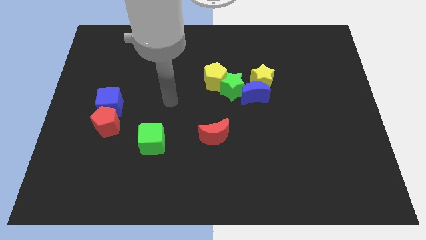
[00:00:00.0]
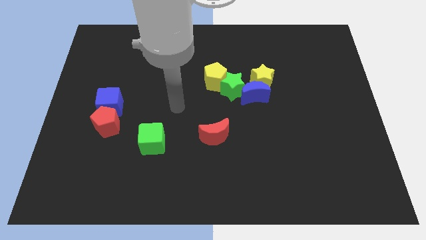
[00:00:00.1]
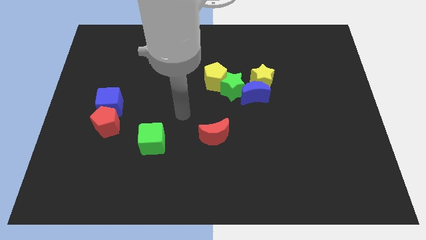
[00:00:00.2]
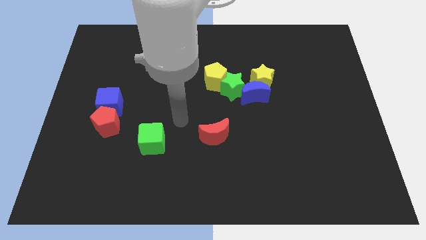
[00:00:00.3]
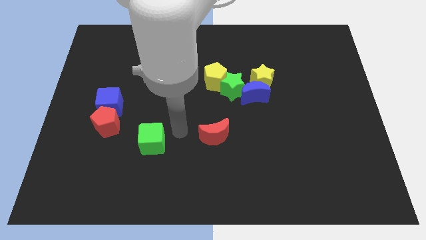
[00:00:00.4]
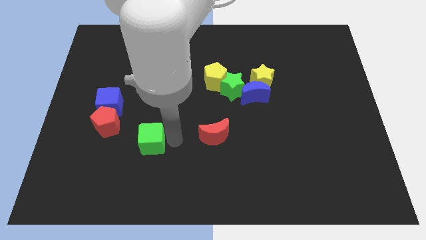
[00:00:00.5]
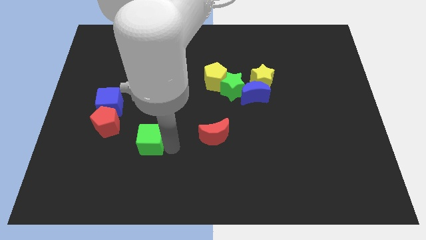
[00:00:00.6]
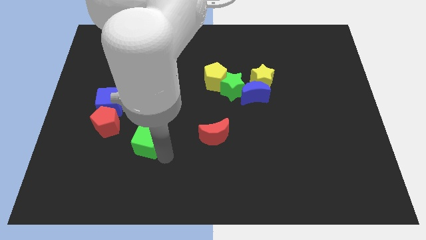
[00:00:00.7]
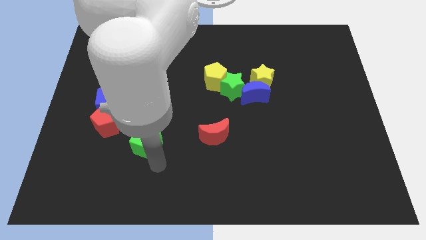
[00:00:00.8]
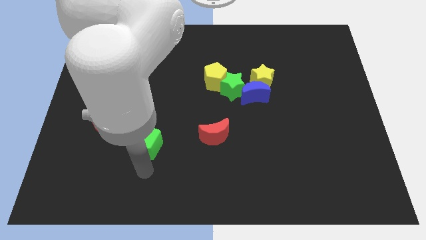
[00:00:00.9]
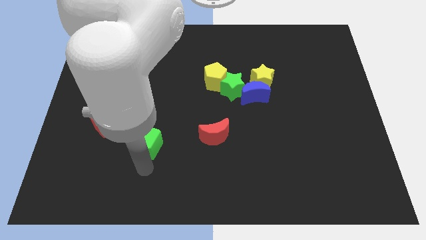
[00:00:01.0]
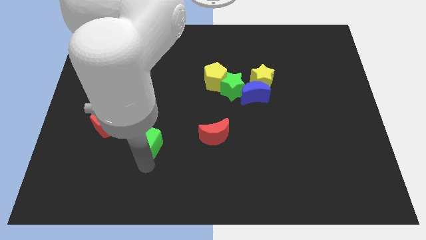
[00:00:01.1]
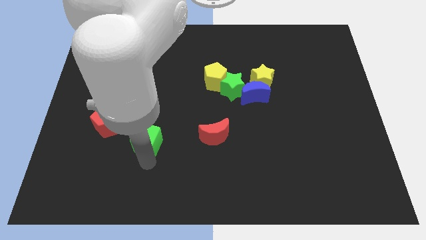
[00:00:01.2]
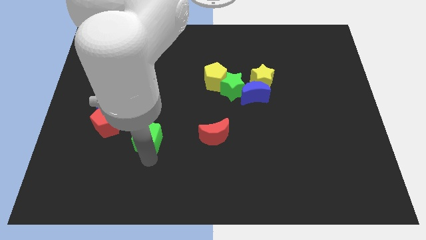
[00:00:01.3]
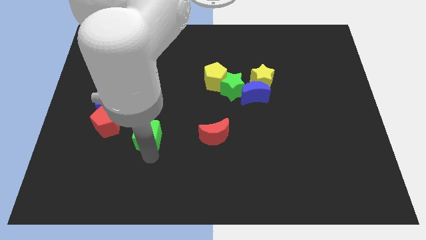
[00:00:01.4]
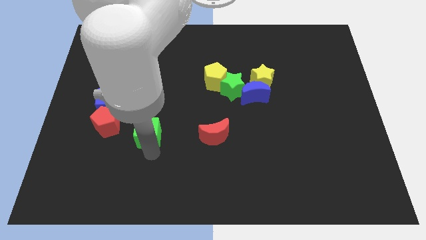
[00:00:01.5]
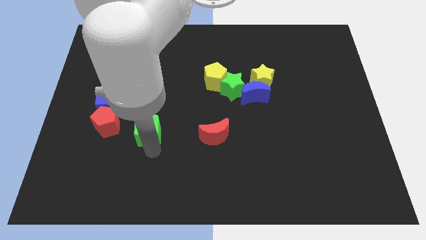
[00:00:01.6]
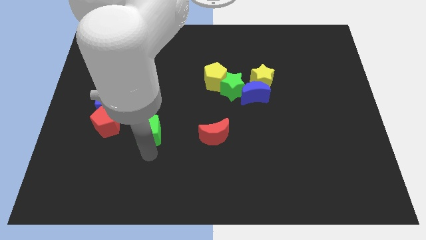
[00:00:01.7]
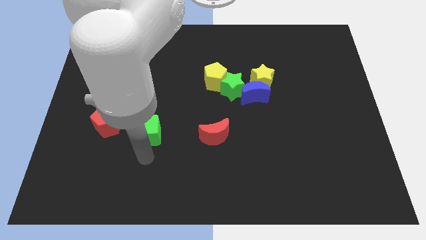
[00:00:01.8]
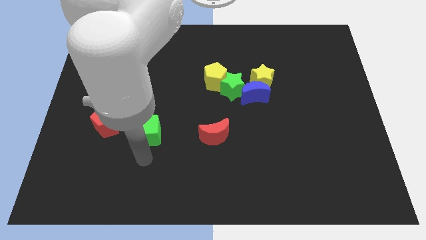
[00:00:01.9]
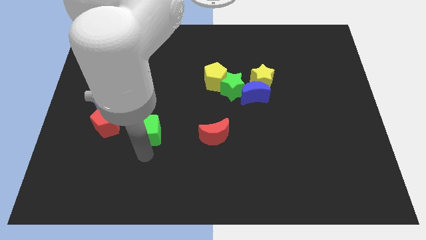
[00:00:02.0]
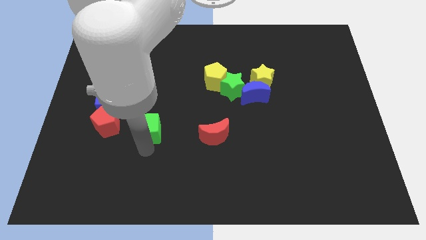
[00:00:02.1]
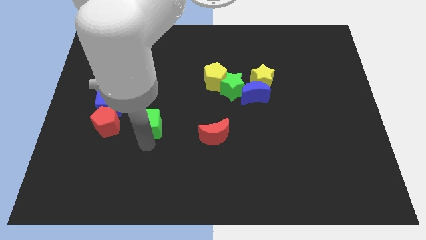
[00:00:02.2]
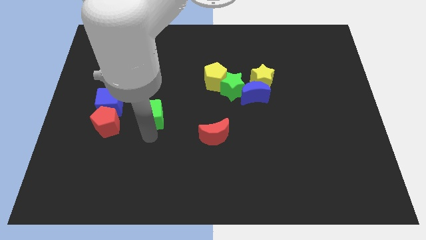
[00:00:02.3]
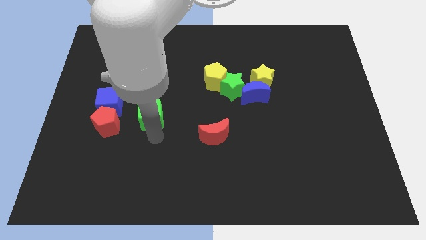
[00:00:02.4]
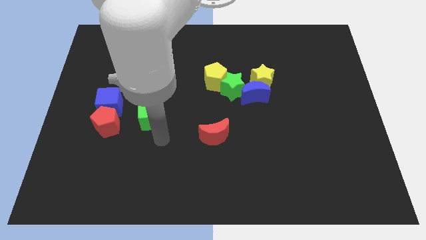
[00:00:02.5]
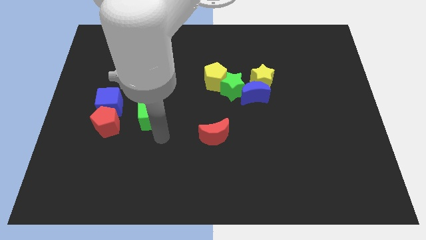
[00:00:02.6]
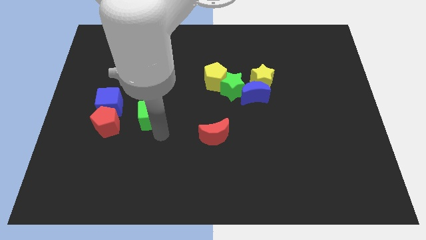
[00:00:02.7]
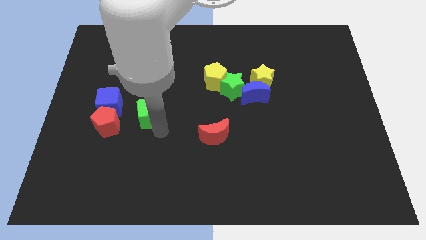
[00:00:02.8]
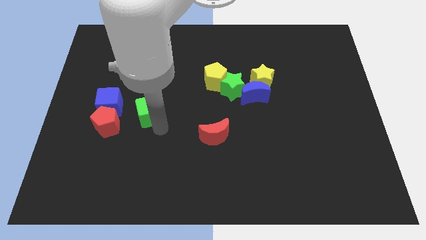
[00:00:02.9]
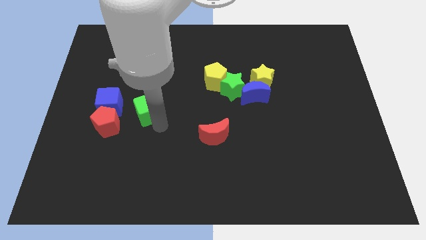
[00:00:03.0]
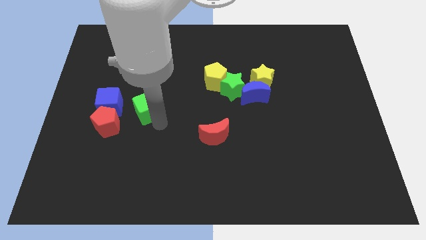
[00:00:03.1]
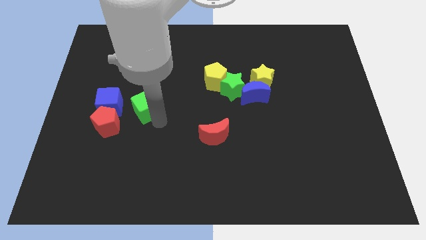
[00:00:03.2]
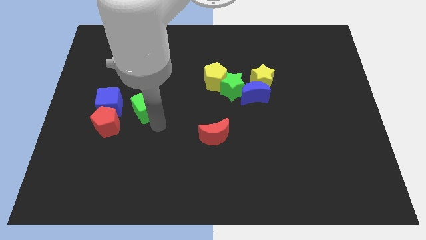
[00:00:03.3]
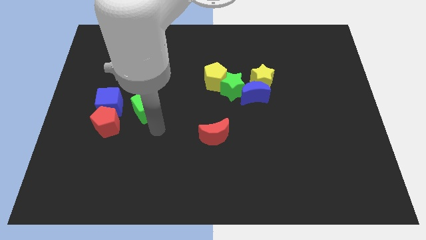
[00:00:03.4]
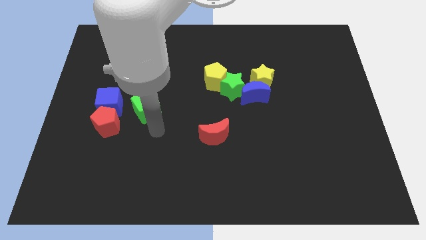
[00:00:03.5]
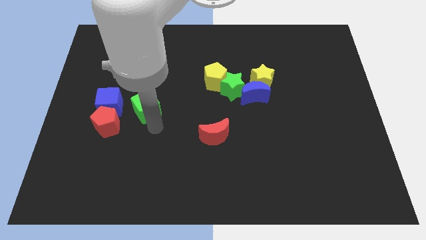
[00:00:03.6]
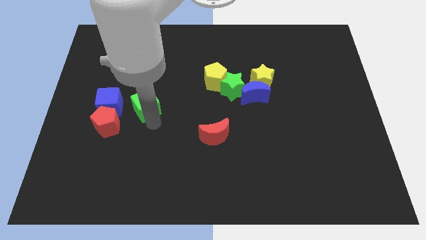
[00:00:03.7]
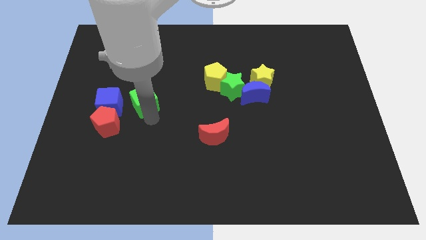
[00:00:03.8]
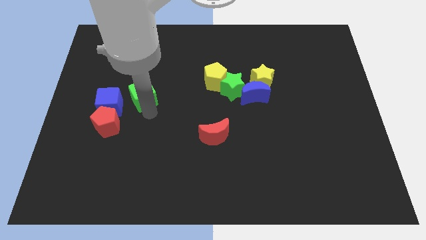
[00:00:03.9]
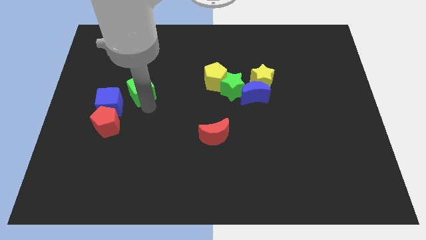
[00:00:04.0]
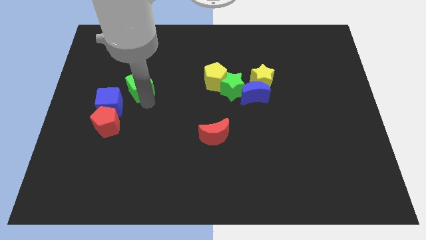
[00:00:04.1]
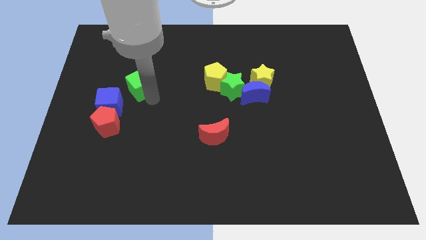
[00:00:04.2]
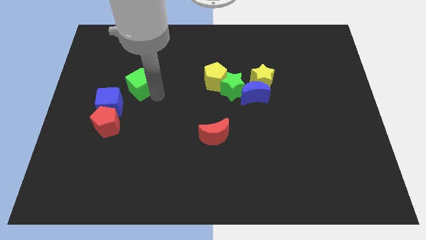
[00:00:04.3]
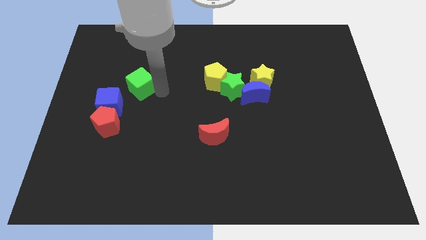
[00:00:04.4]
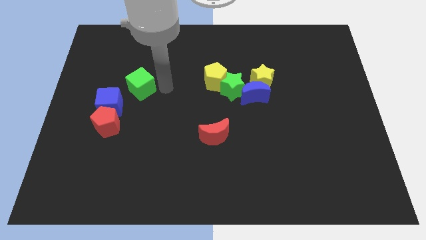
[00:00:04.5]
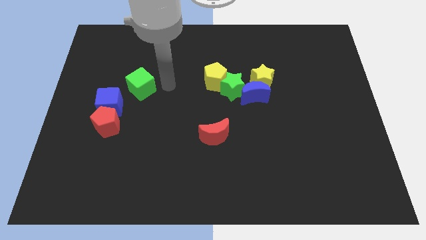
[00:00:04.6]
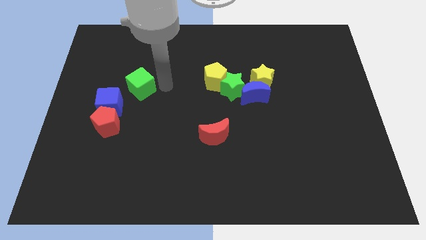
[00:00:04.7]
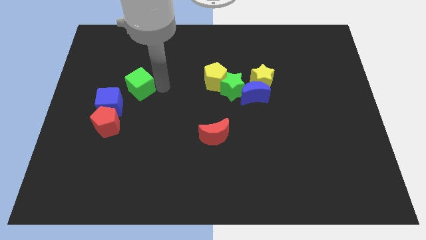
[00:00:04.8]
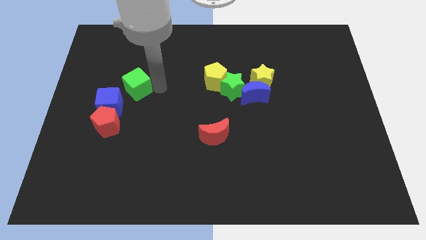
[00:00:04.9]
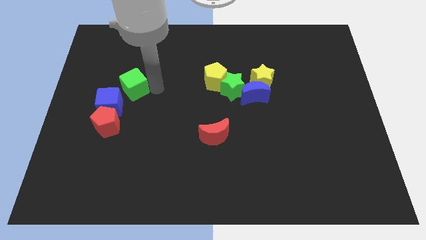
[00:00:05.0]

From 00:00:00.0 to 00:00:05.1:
put the green cube to the top of the red pentagon

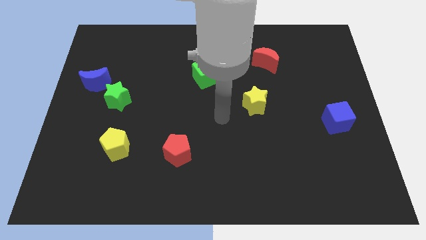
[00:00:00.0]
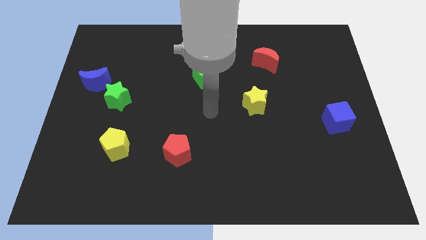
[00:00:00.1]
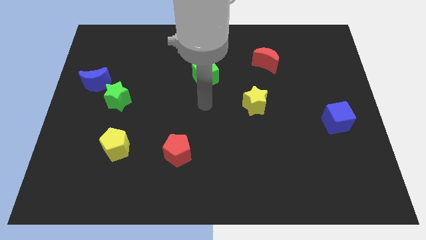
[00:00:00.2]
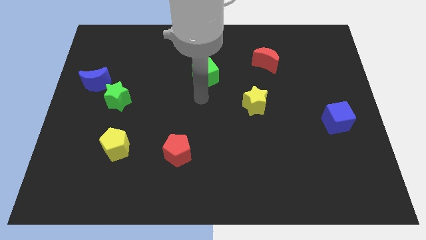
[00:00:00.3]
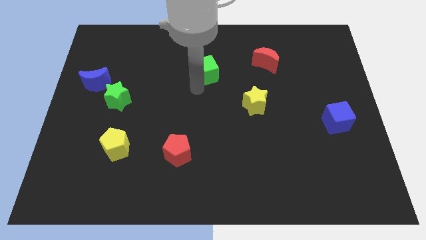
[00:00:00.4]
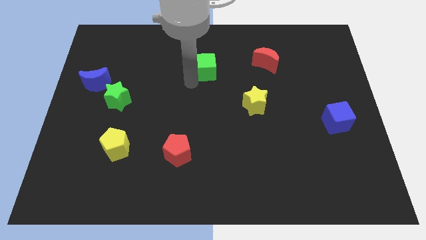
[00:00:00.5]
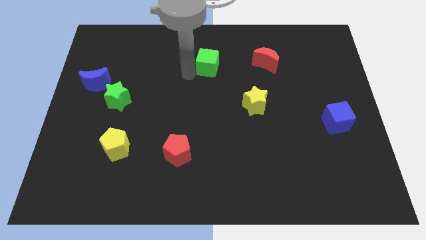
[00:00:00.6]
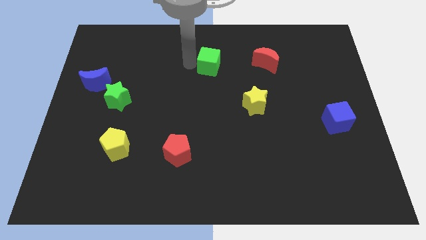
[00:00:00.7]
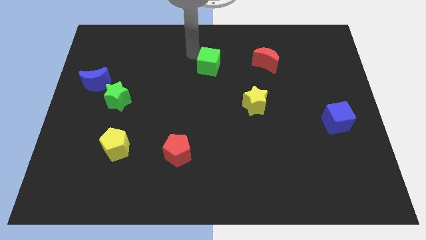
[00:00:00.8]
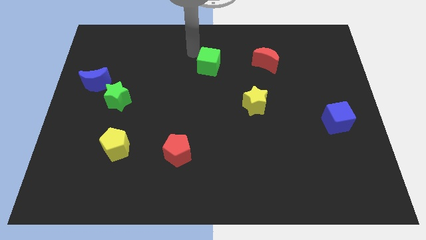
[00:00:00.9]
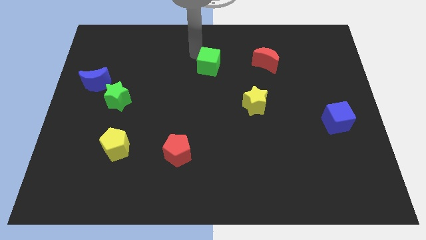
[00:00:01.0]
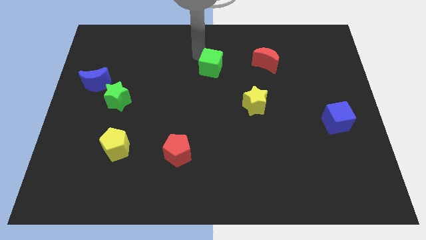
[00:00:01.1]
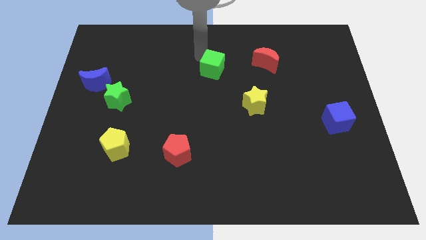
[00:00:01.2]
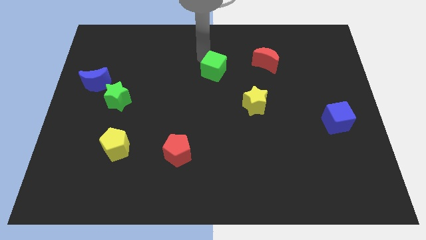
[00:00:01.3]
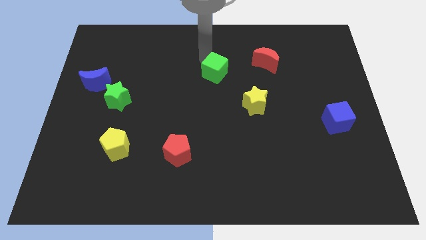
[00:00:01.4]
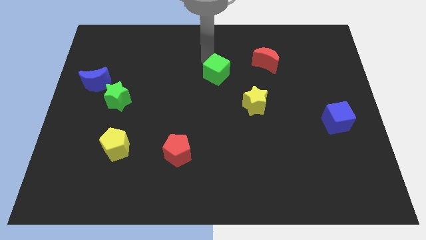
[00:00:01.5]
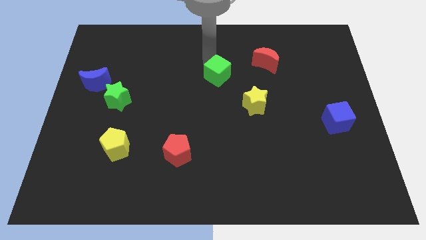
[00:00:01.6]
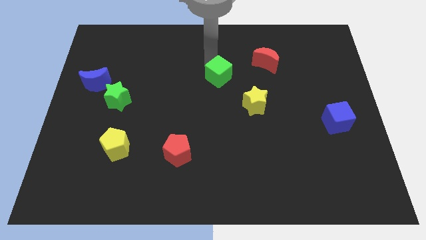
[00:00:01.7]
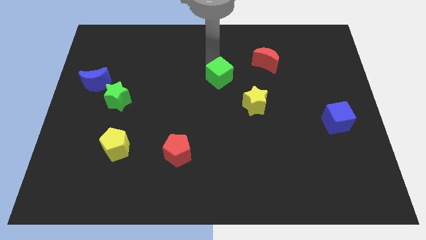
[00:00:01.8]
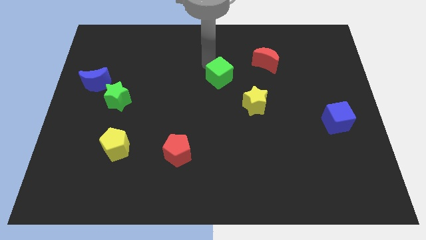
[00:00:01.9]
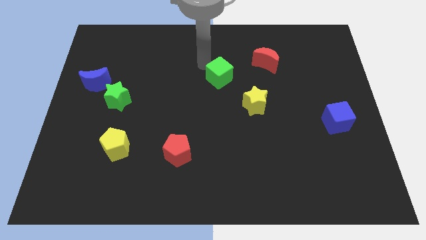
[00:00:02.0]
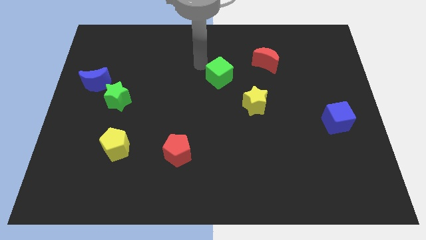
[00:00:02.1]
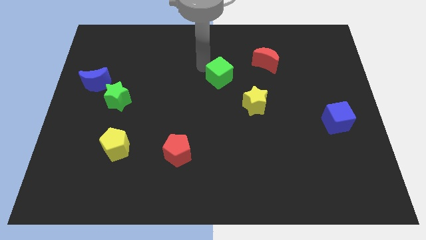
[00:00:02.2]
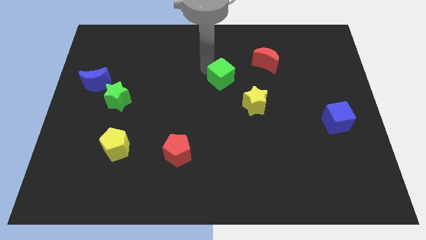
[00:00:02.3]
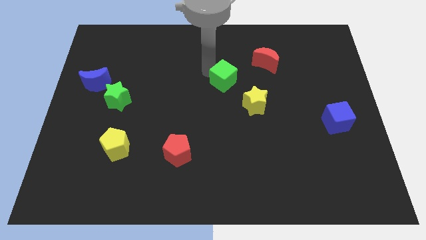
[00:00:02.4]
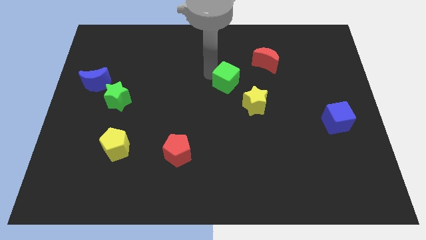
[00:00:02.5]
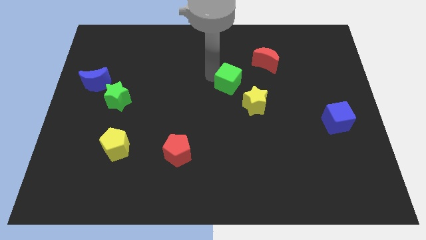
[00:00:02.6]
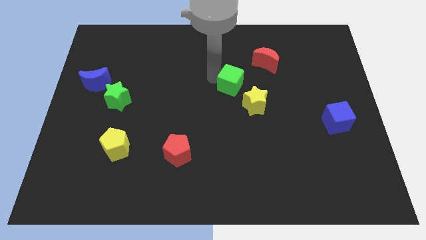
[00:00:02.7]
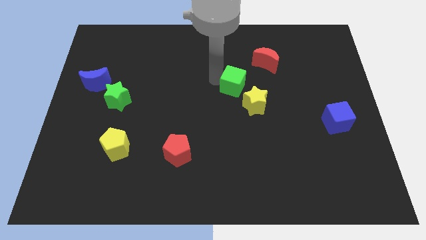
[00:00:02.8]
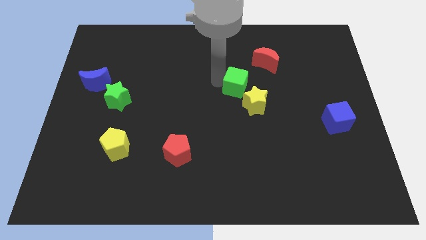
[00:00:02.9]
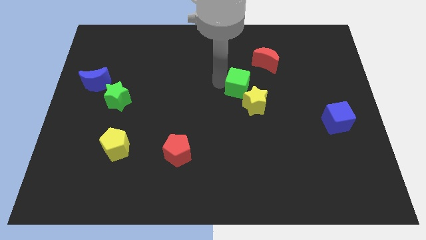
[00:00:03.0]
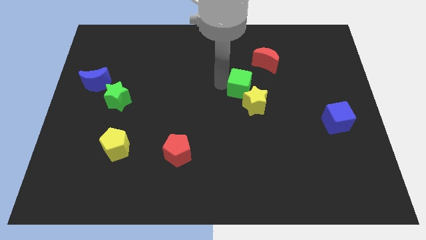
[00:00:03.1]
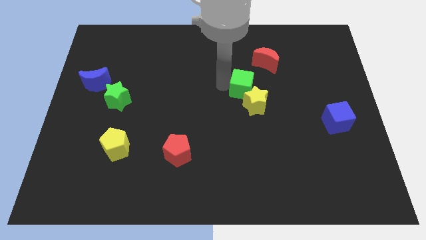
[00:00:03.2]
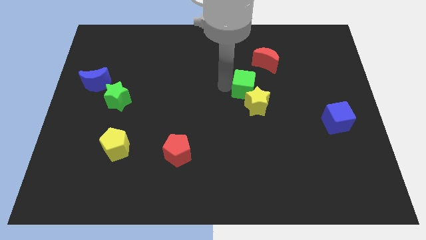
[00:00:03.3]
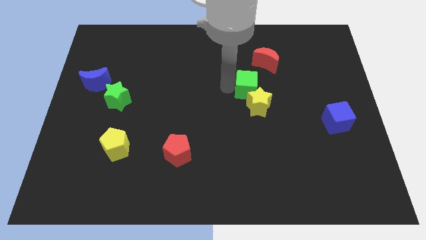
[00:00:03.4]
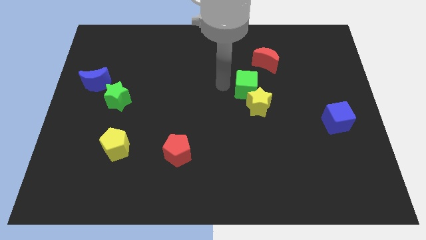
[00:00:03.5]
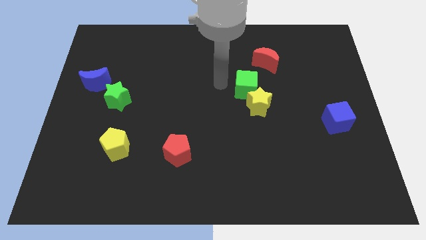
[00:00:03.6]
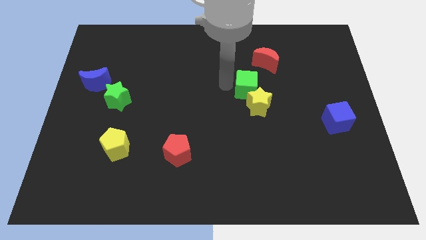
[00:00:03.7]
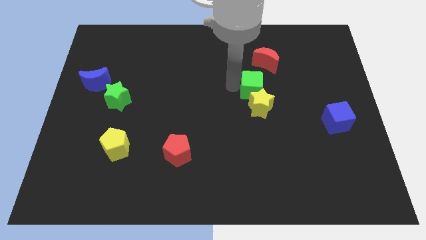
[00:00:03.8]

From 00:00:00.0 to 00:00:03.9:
slide the green cube below the red moon
